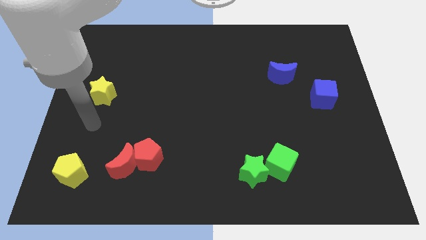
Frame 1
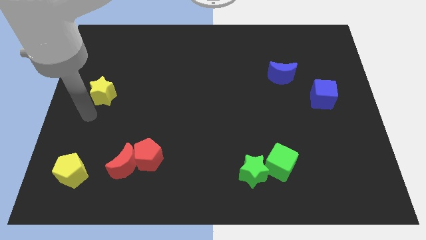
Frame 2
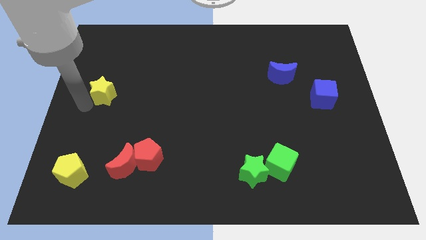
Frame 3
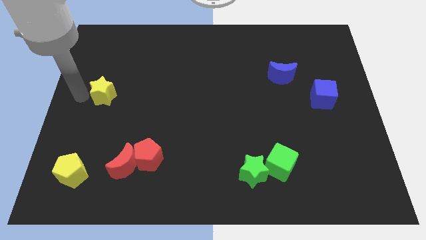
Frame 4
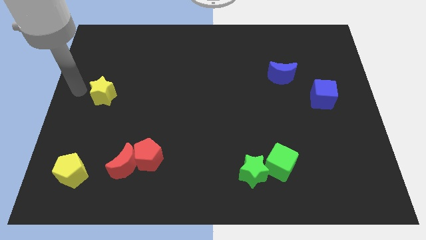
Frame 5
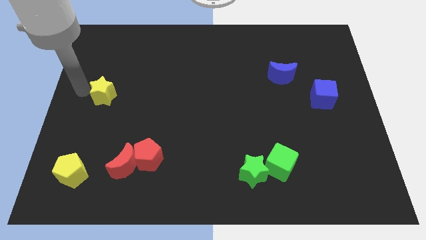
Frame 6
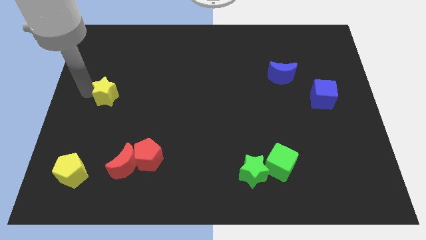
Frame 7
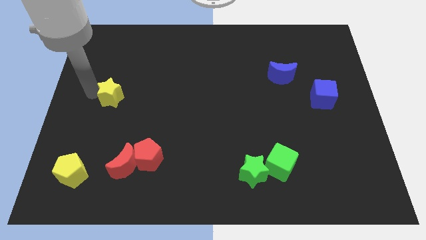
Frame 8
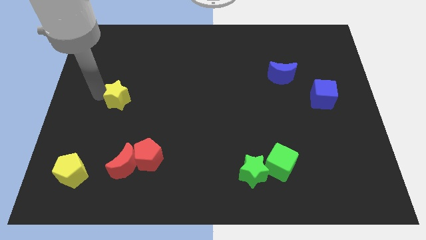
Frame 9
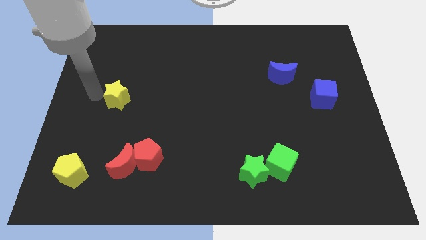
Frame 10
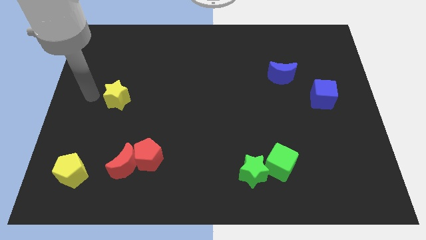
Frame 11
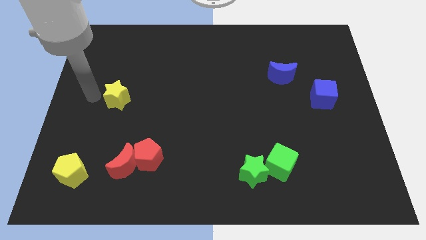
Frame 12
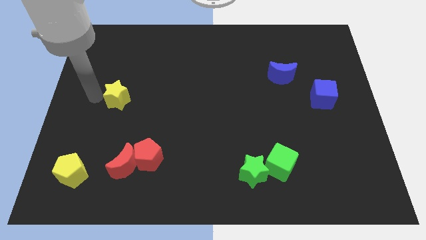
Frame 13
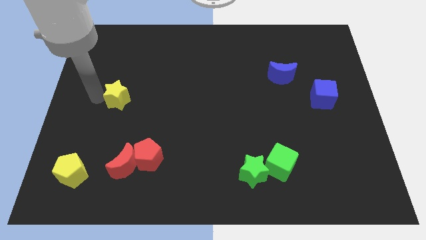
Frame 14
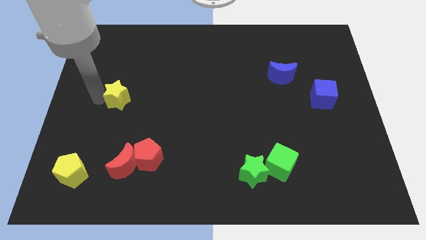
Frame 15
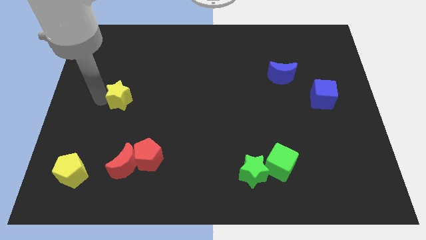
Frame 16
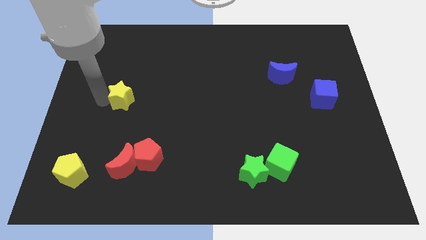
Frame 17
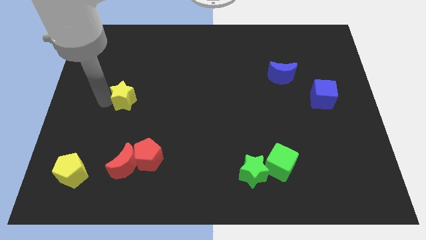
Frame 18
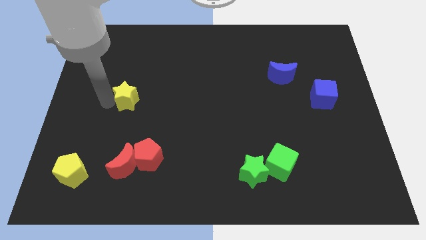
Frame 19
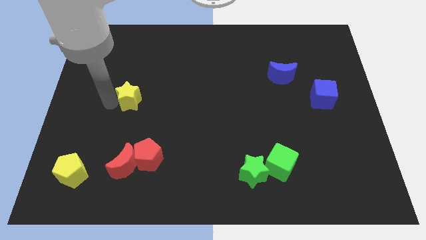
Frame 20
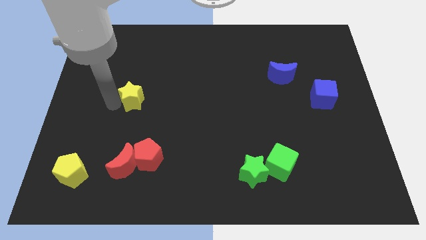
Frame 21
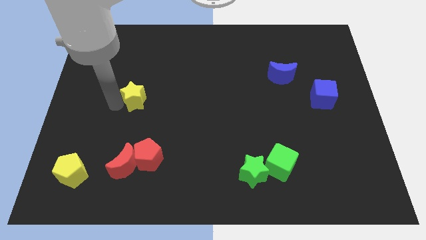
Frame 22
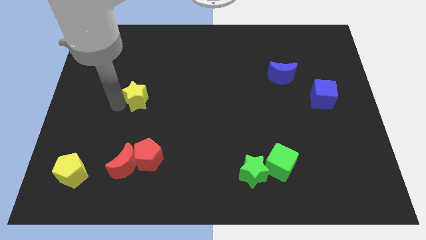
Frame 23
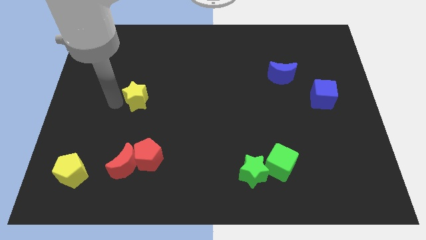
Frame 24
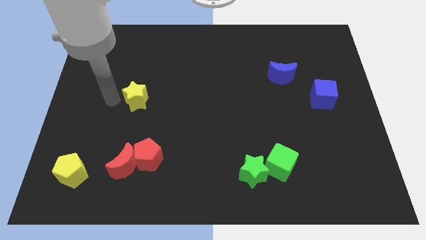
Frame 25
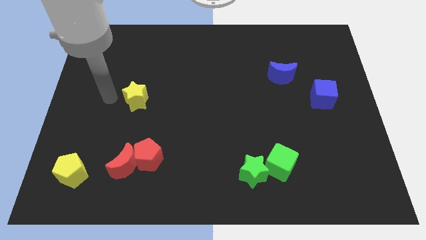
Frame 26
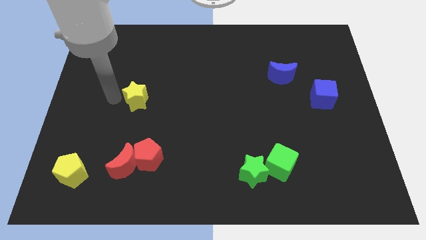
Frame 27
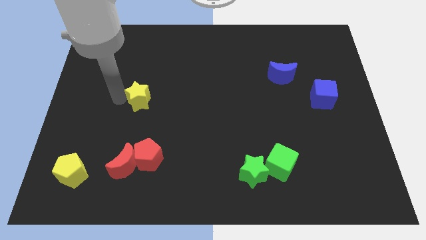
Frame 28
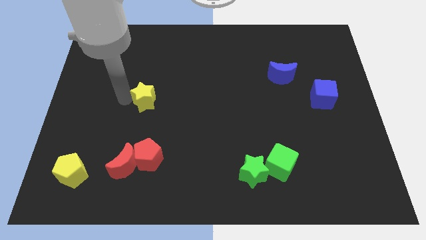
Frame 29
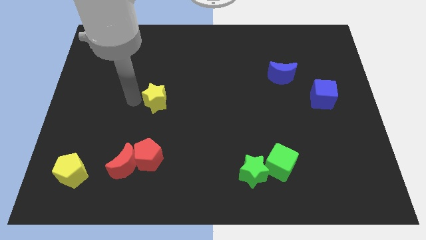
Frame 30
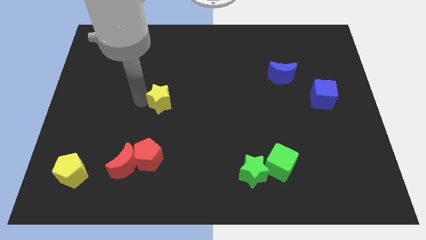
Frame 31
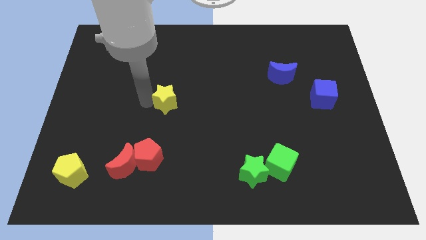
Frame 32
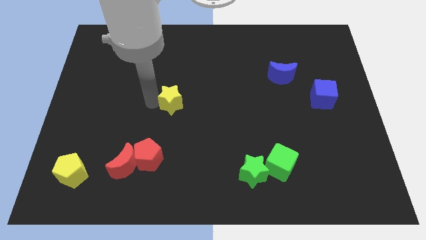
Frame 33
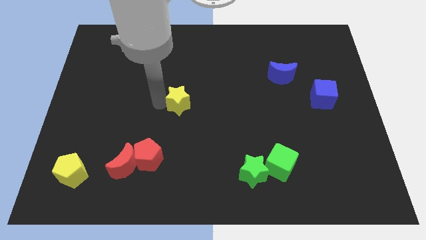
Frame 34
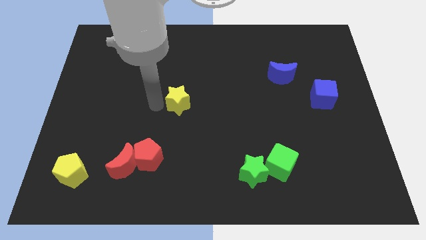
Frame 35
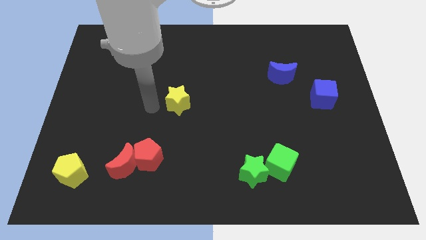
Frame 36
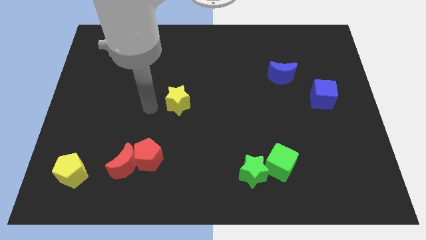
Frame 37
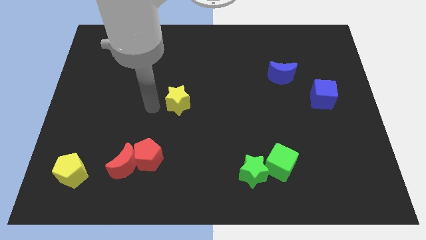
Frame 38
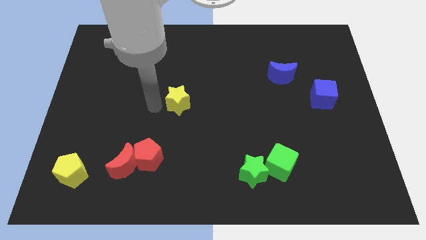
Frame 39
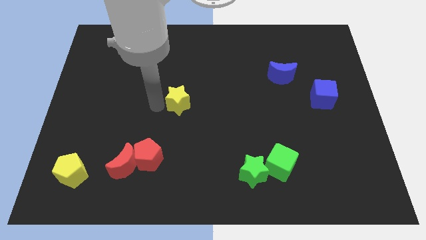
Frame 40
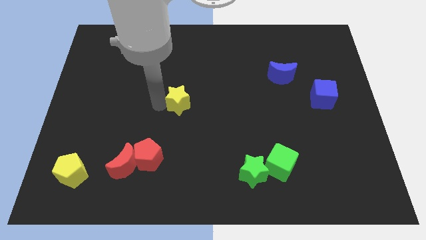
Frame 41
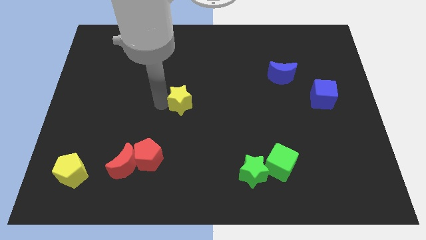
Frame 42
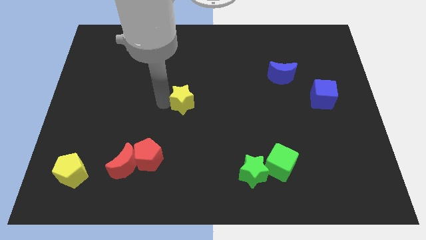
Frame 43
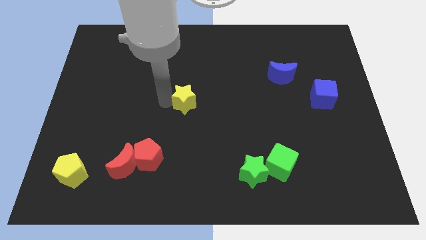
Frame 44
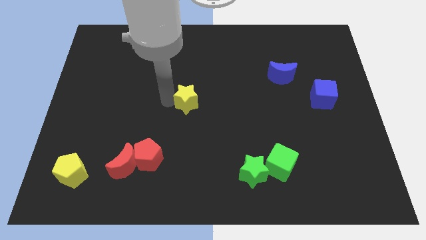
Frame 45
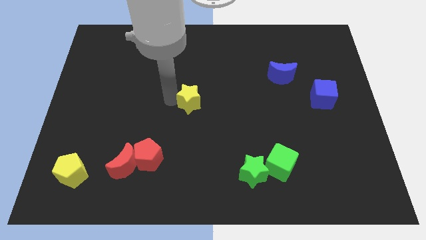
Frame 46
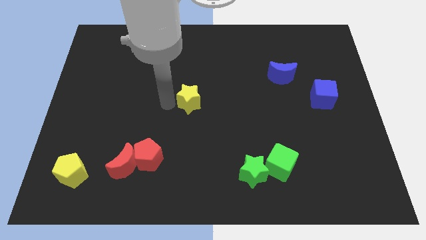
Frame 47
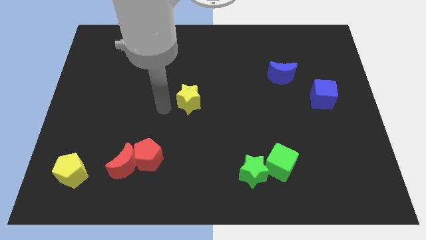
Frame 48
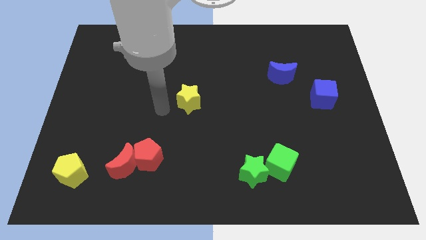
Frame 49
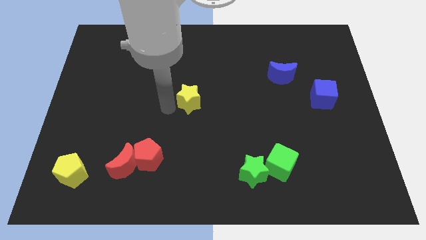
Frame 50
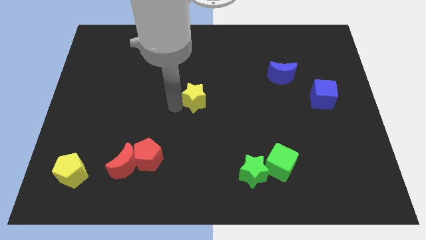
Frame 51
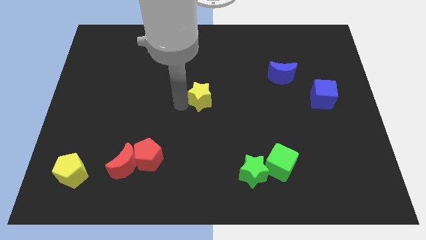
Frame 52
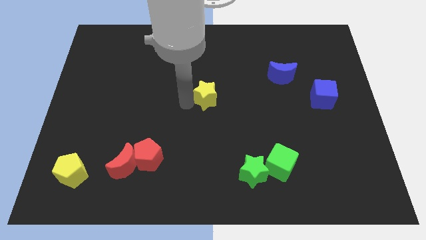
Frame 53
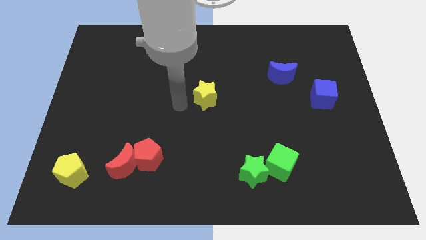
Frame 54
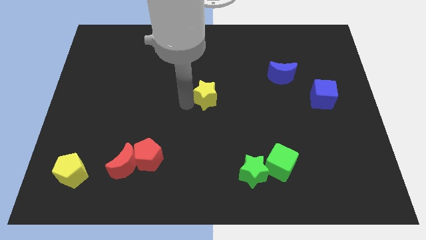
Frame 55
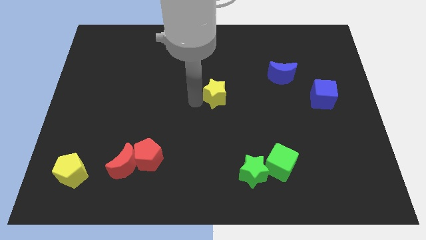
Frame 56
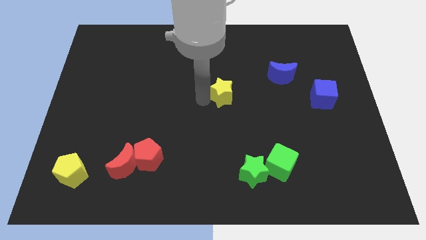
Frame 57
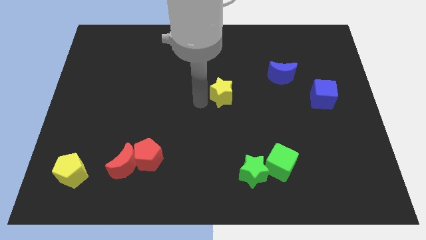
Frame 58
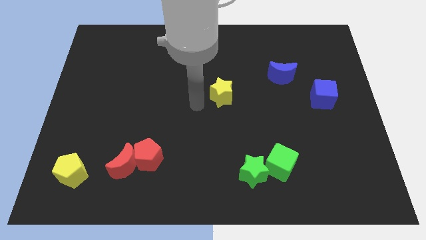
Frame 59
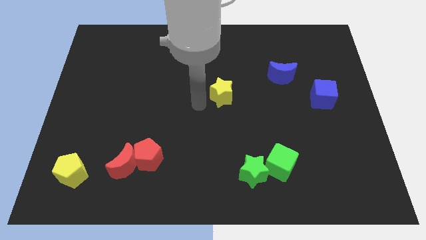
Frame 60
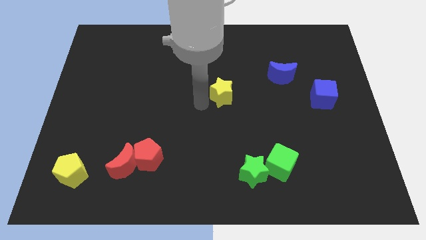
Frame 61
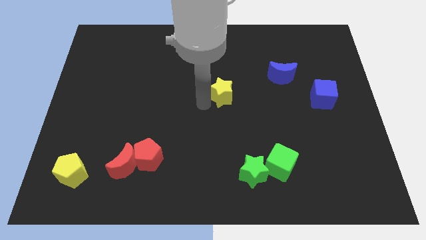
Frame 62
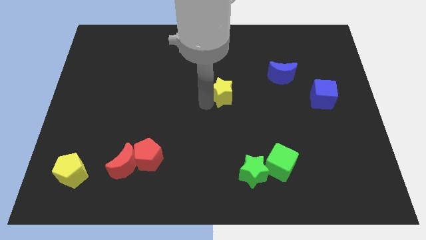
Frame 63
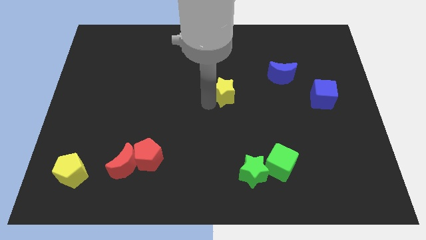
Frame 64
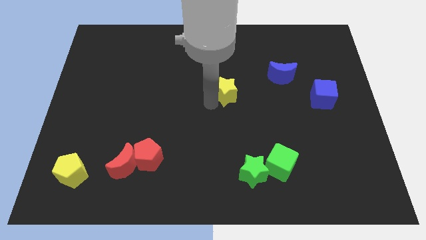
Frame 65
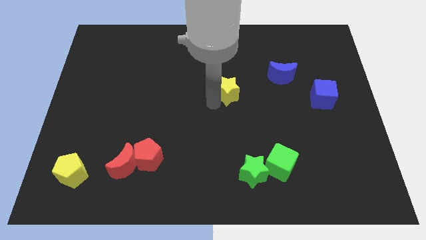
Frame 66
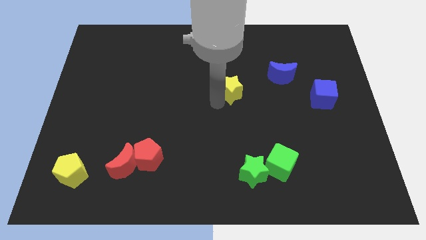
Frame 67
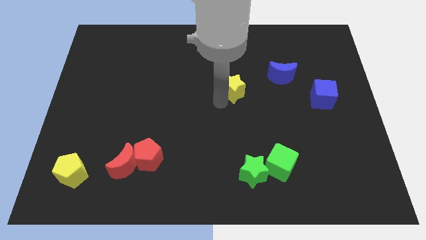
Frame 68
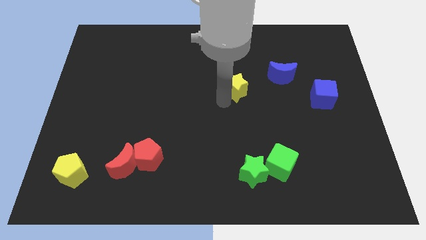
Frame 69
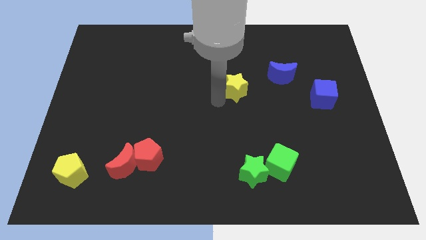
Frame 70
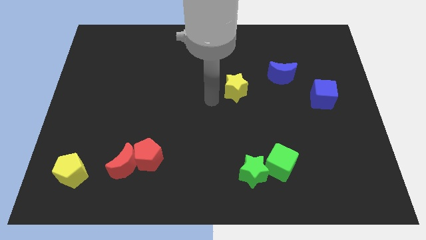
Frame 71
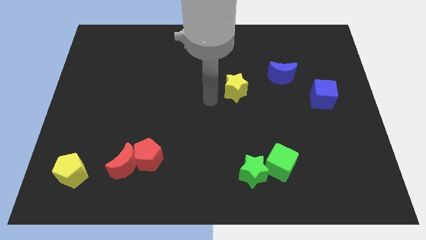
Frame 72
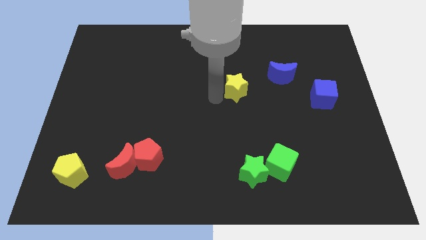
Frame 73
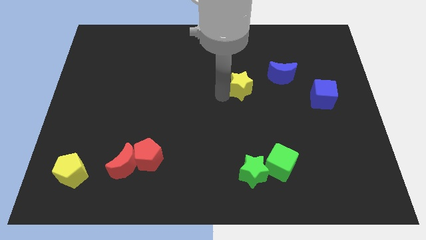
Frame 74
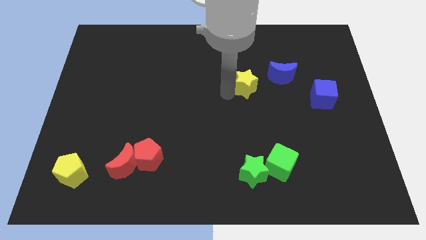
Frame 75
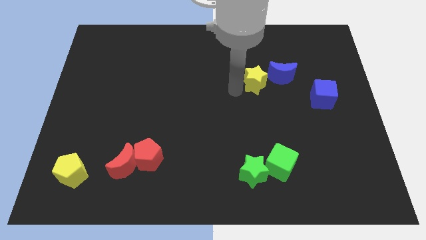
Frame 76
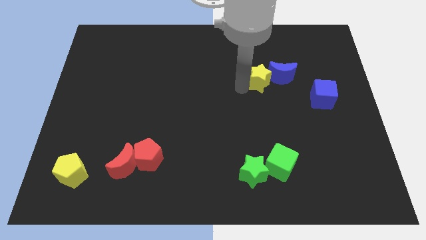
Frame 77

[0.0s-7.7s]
put the yellow star next to the blue moon
